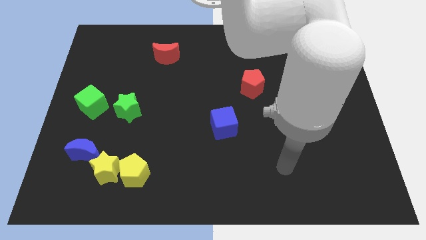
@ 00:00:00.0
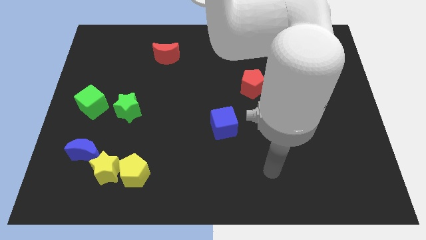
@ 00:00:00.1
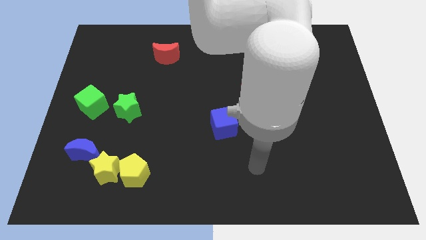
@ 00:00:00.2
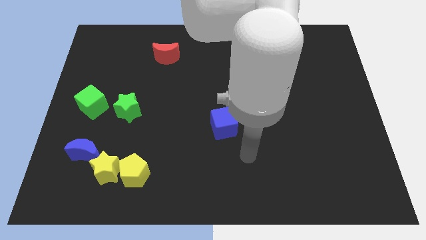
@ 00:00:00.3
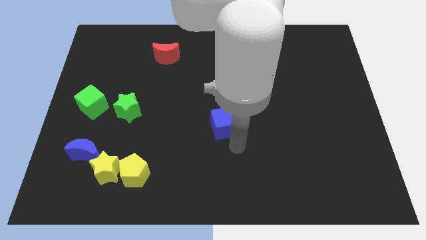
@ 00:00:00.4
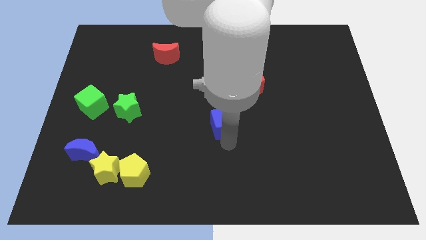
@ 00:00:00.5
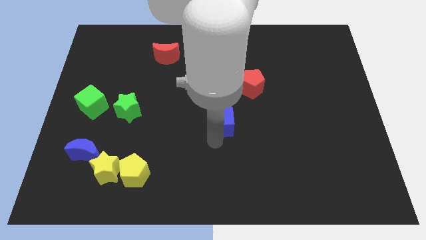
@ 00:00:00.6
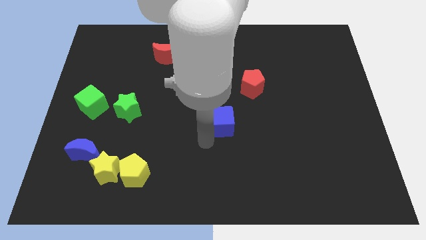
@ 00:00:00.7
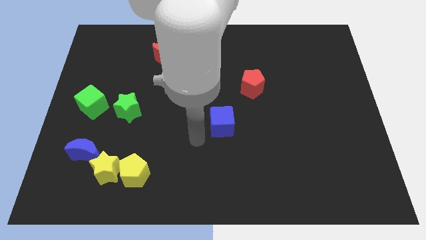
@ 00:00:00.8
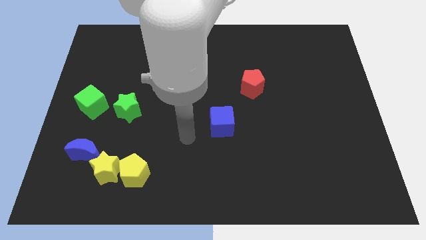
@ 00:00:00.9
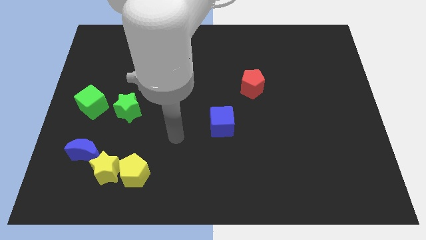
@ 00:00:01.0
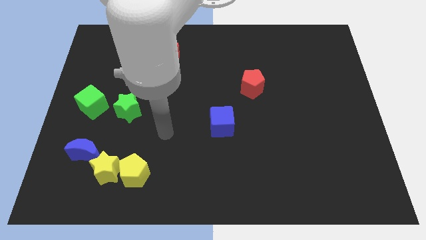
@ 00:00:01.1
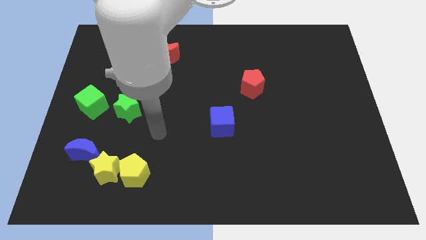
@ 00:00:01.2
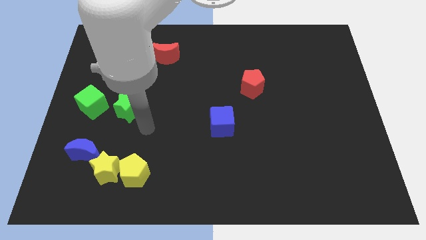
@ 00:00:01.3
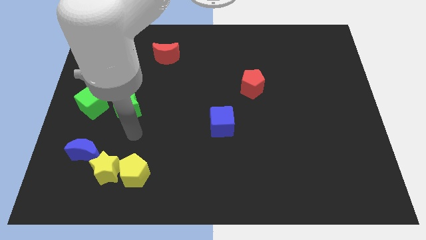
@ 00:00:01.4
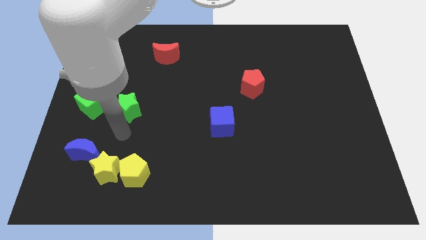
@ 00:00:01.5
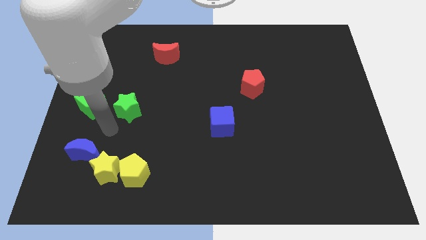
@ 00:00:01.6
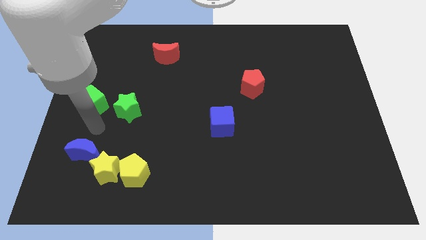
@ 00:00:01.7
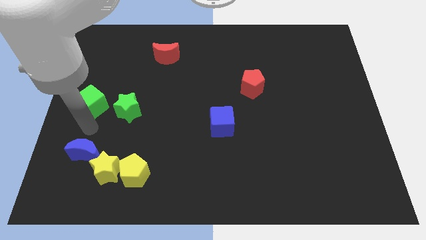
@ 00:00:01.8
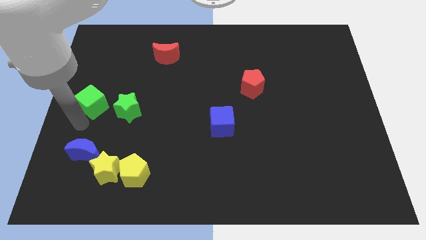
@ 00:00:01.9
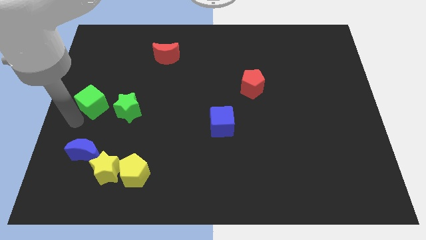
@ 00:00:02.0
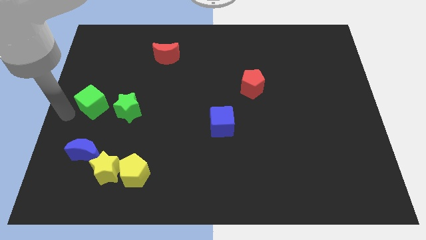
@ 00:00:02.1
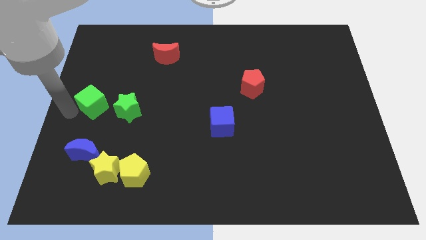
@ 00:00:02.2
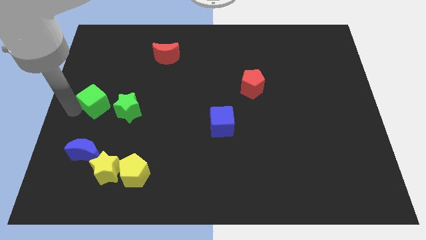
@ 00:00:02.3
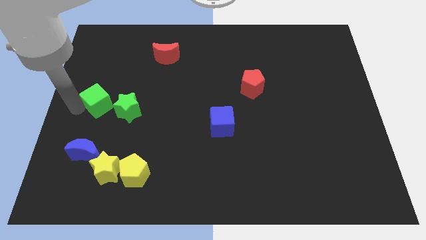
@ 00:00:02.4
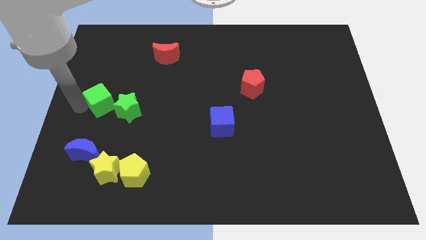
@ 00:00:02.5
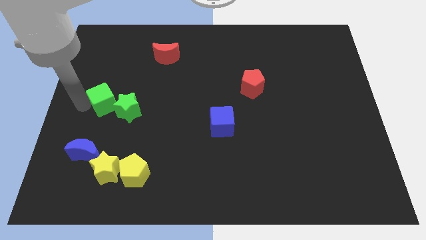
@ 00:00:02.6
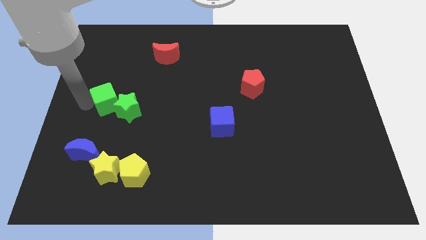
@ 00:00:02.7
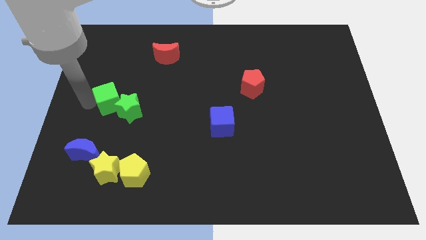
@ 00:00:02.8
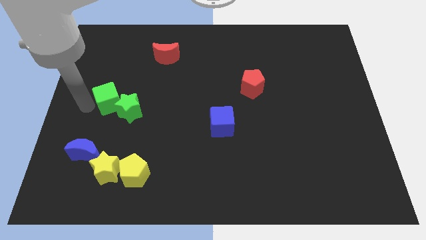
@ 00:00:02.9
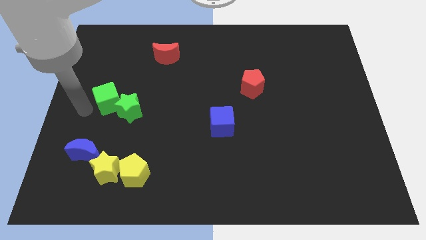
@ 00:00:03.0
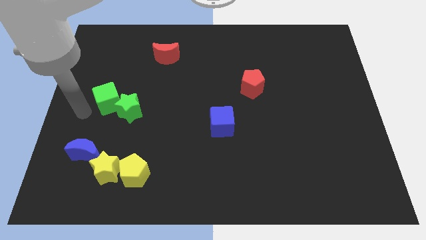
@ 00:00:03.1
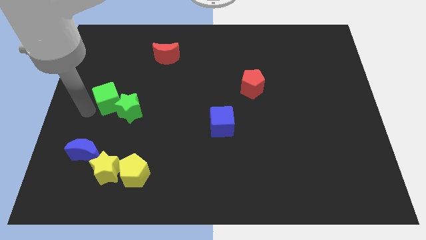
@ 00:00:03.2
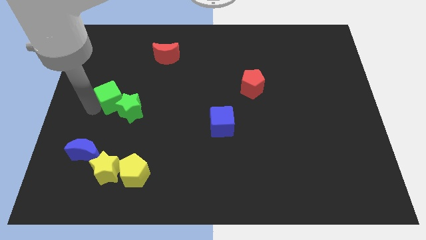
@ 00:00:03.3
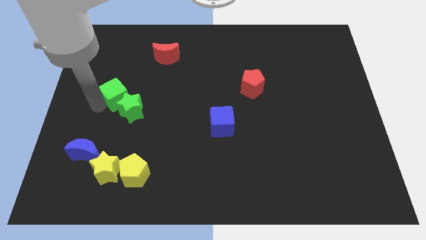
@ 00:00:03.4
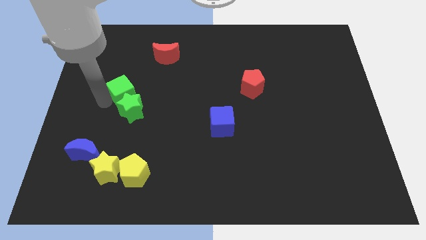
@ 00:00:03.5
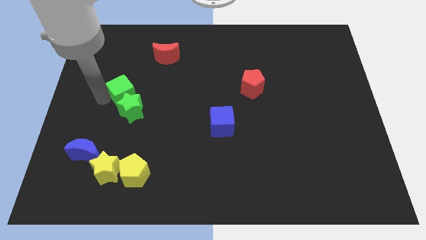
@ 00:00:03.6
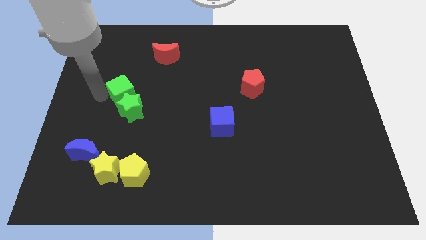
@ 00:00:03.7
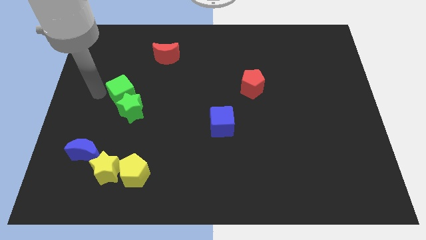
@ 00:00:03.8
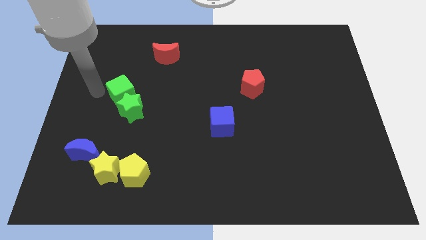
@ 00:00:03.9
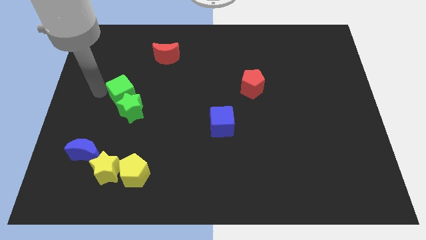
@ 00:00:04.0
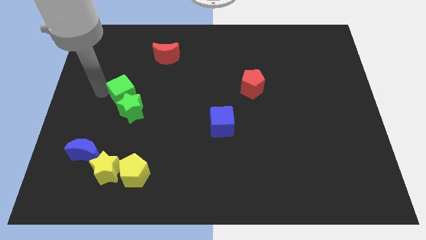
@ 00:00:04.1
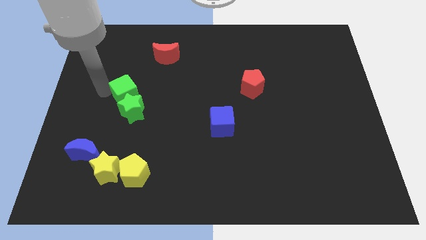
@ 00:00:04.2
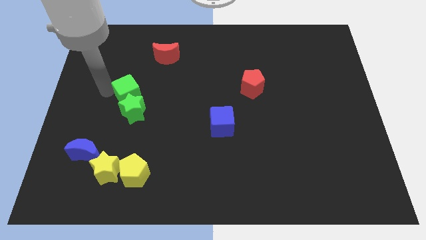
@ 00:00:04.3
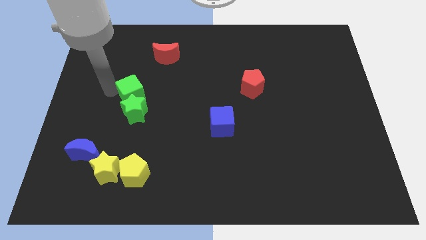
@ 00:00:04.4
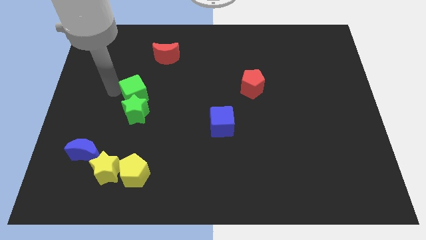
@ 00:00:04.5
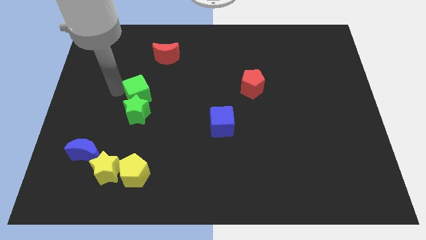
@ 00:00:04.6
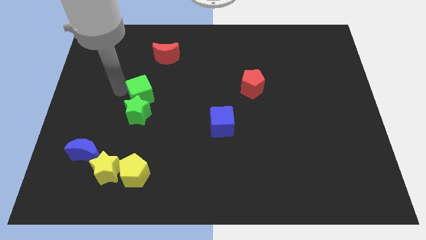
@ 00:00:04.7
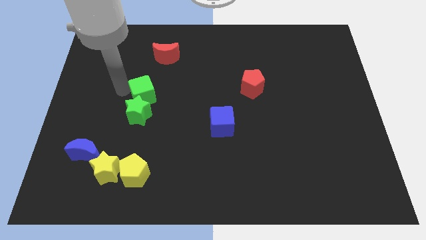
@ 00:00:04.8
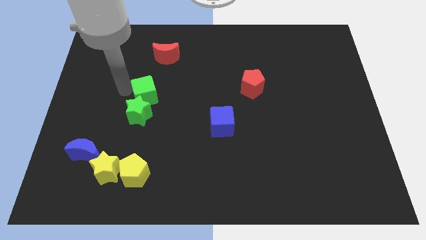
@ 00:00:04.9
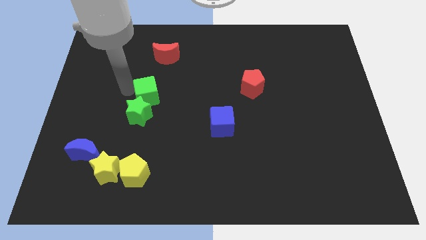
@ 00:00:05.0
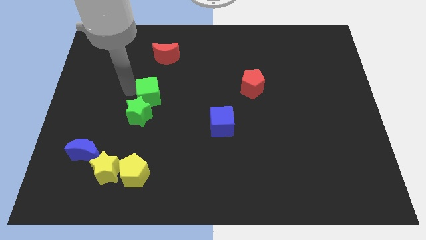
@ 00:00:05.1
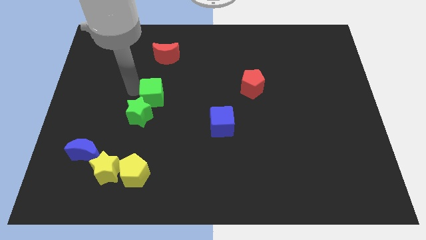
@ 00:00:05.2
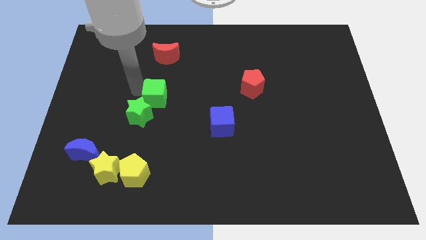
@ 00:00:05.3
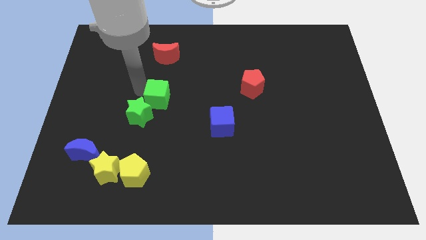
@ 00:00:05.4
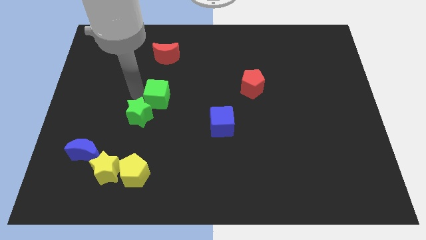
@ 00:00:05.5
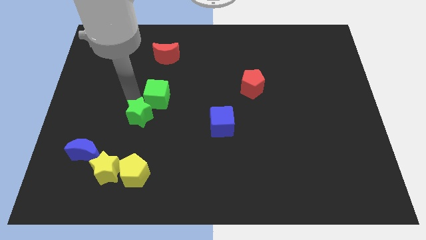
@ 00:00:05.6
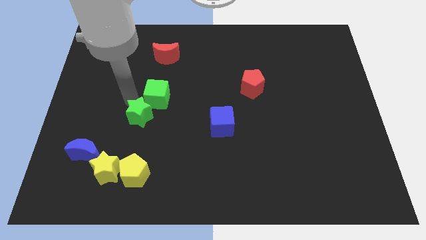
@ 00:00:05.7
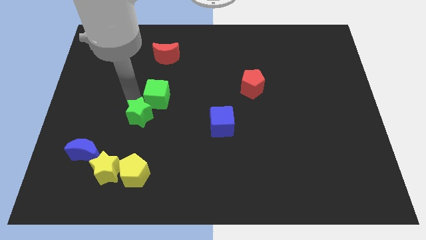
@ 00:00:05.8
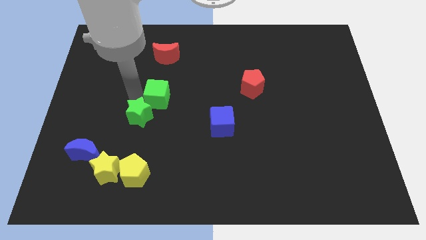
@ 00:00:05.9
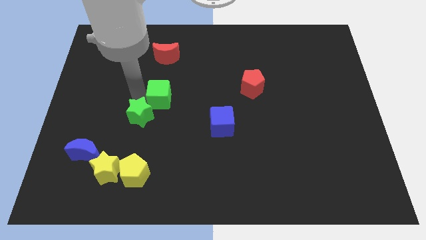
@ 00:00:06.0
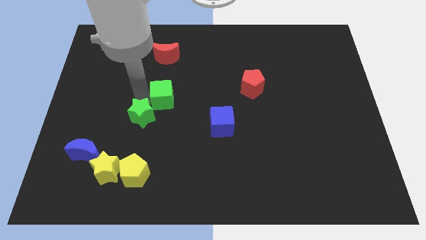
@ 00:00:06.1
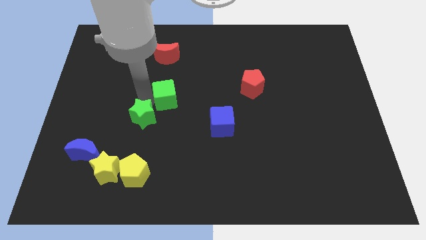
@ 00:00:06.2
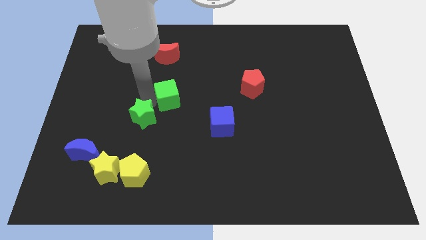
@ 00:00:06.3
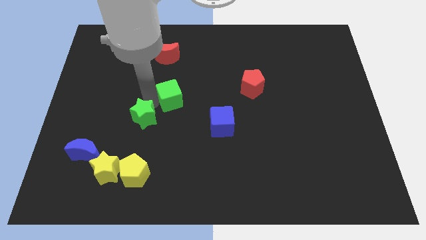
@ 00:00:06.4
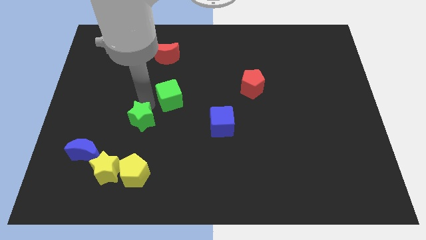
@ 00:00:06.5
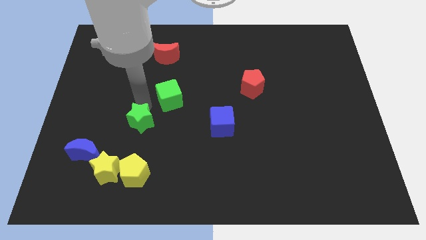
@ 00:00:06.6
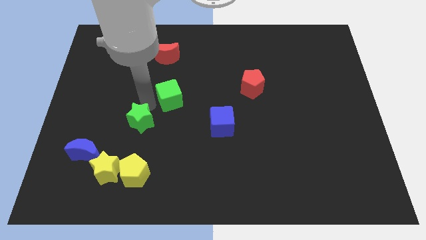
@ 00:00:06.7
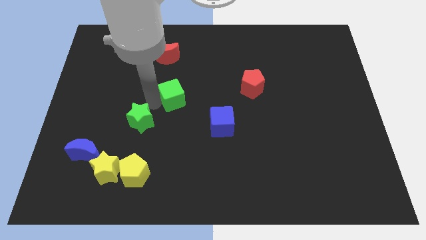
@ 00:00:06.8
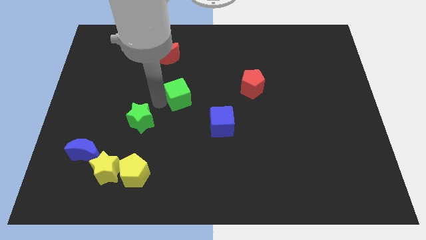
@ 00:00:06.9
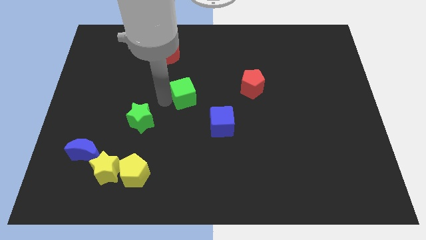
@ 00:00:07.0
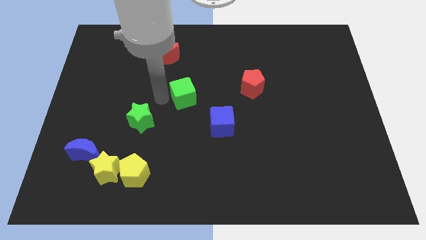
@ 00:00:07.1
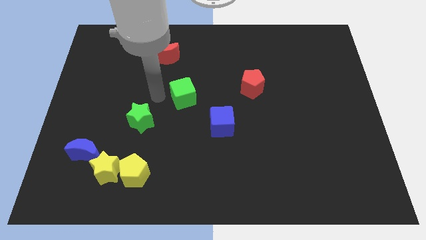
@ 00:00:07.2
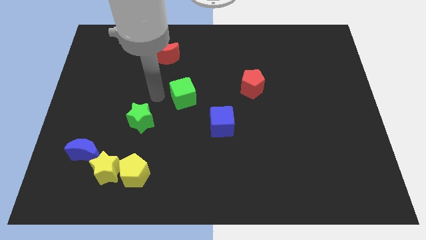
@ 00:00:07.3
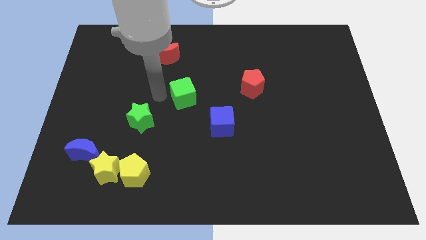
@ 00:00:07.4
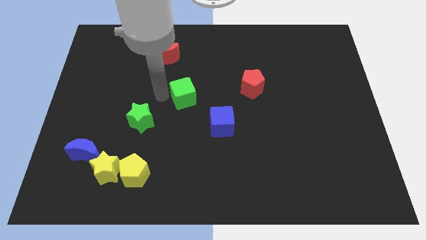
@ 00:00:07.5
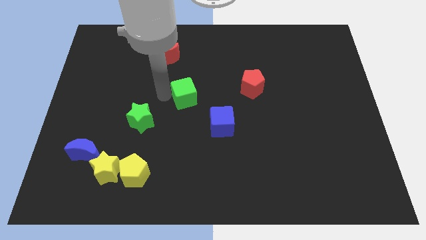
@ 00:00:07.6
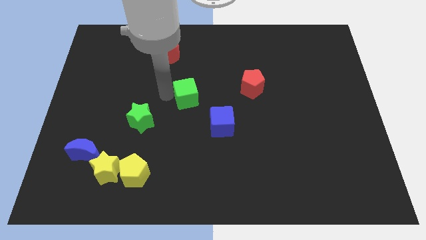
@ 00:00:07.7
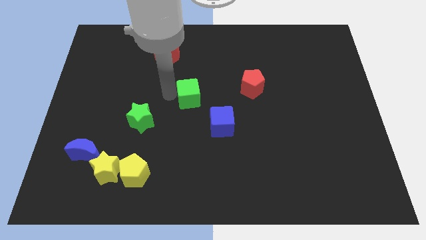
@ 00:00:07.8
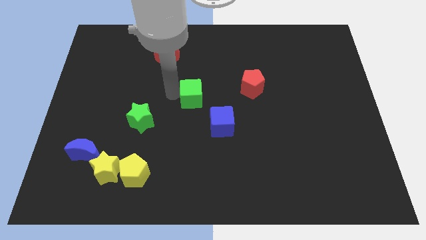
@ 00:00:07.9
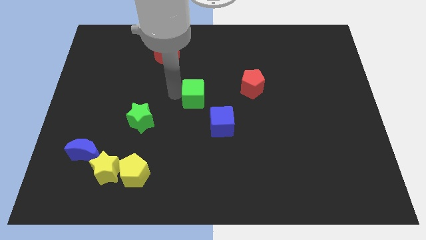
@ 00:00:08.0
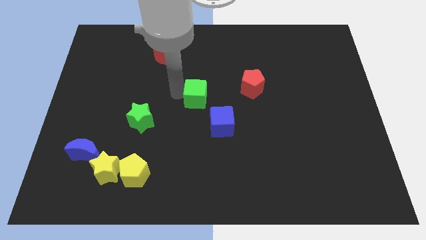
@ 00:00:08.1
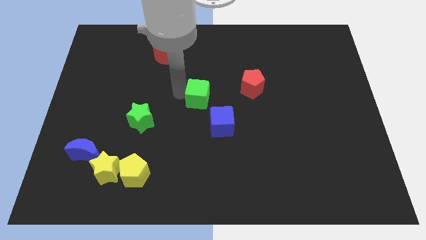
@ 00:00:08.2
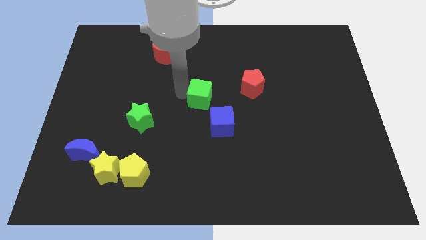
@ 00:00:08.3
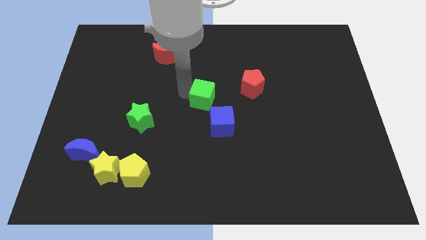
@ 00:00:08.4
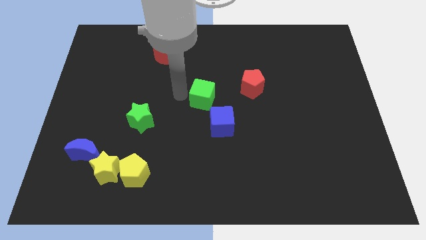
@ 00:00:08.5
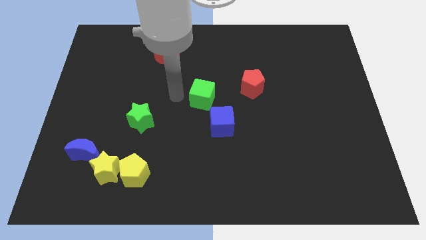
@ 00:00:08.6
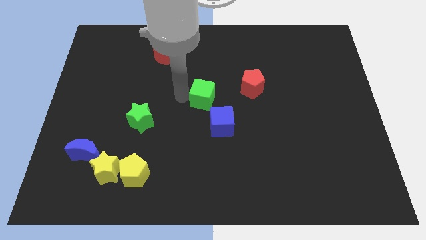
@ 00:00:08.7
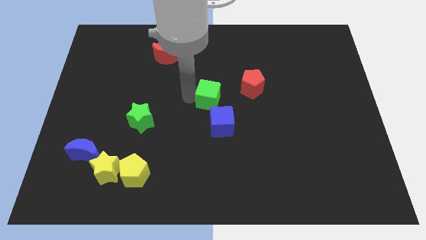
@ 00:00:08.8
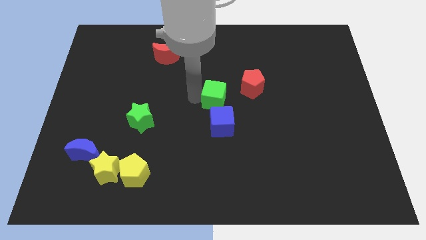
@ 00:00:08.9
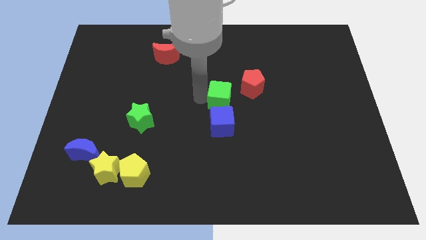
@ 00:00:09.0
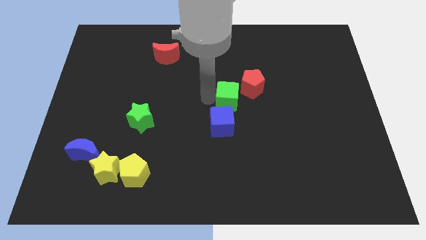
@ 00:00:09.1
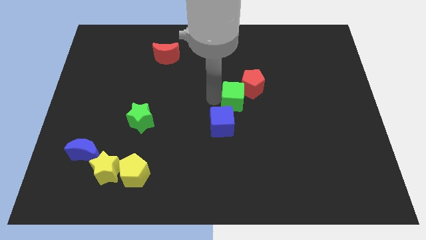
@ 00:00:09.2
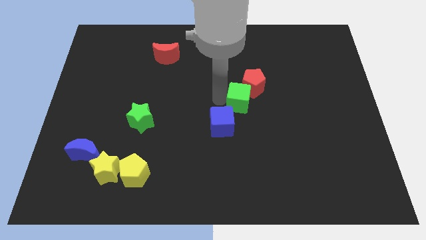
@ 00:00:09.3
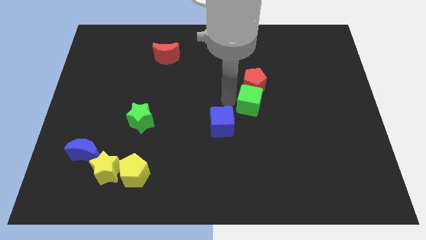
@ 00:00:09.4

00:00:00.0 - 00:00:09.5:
slide the green cube to the bottom right of the red pentagon
